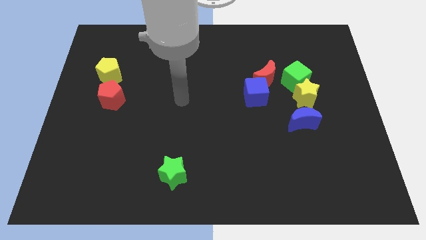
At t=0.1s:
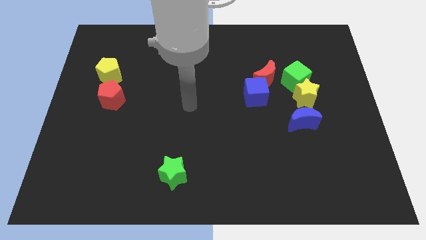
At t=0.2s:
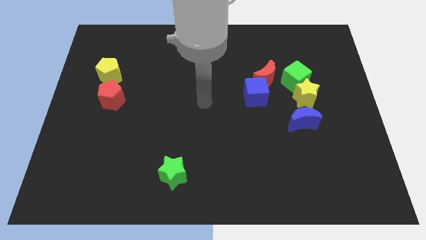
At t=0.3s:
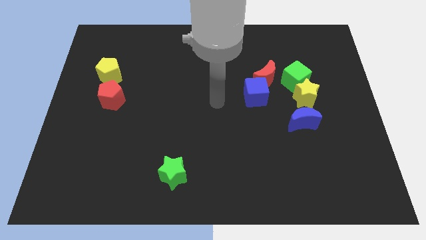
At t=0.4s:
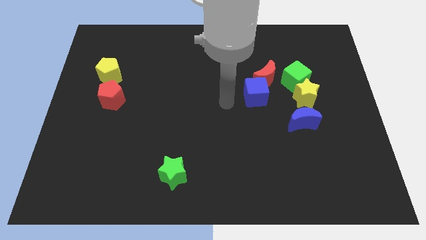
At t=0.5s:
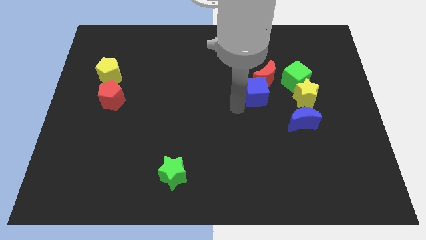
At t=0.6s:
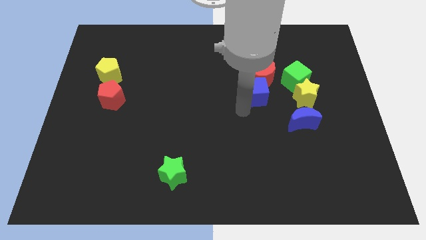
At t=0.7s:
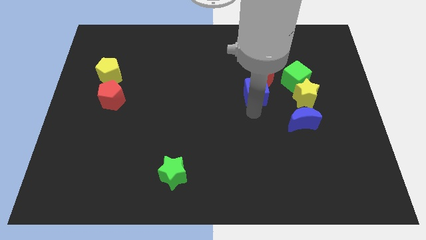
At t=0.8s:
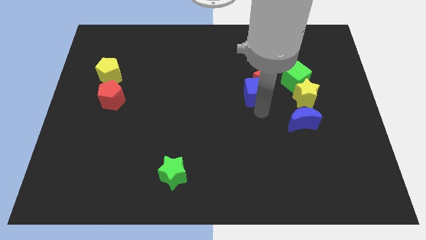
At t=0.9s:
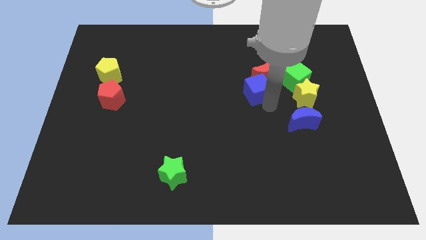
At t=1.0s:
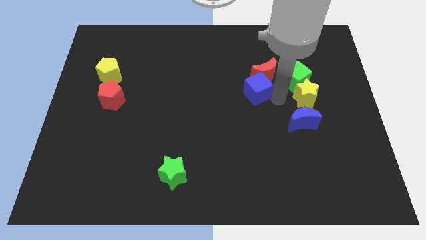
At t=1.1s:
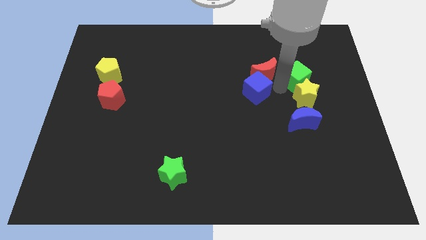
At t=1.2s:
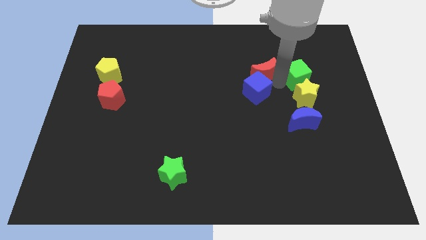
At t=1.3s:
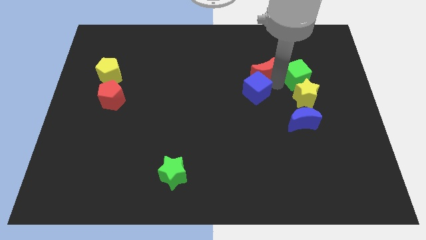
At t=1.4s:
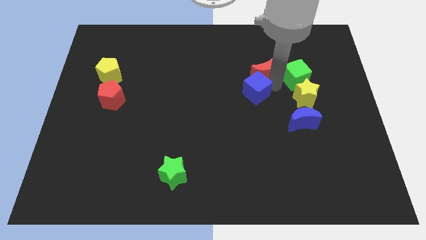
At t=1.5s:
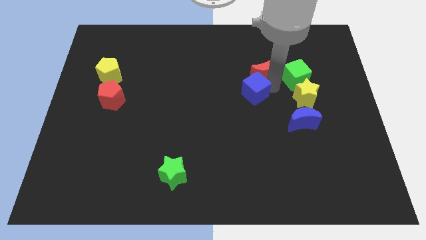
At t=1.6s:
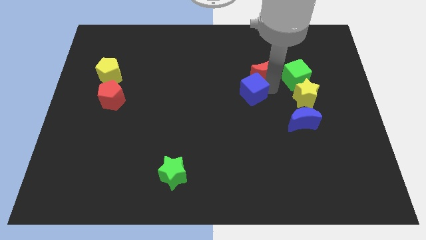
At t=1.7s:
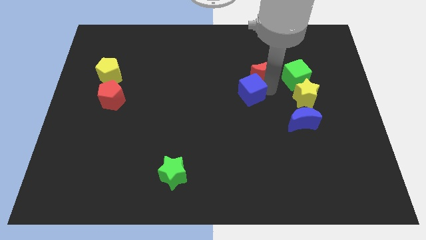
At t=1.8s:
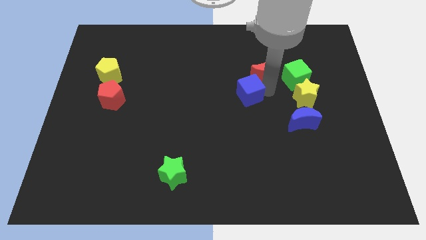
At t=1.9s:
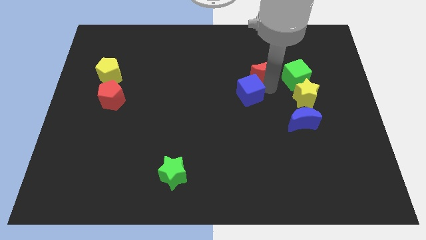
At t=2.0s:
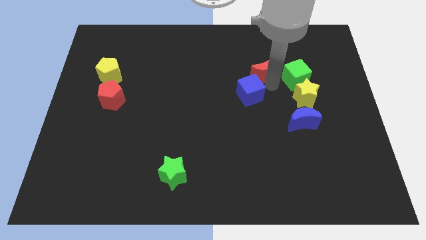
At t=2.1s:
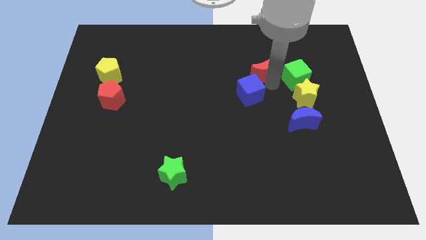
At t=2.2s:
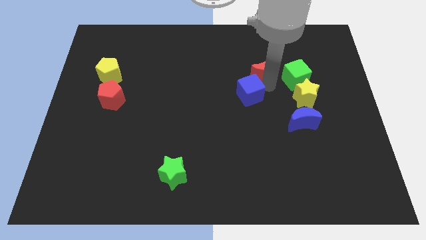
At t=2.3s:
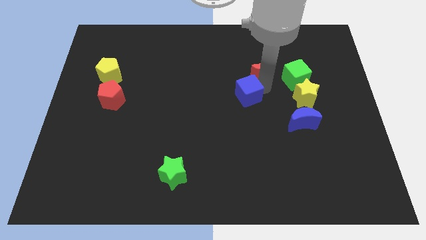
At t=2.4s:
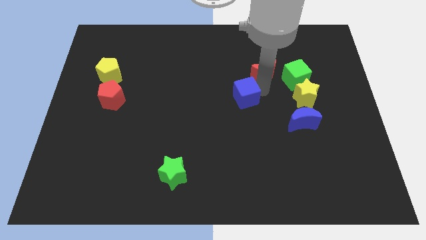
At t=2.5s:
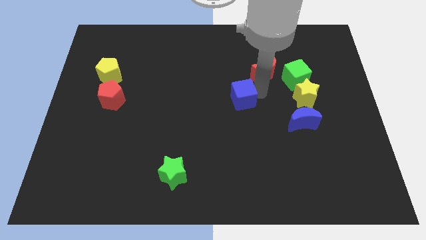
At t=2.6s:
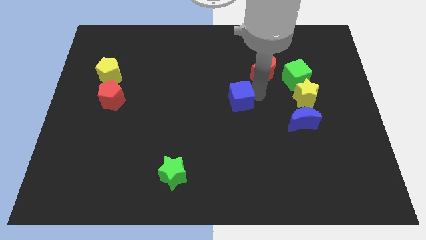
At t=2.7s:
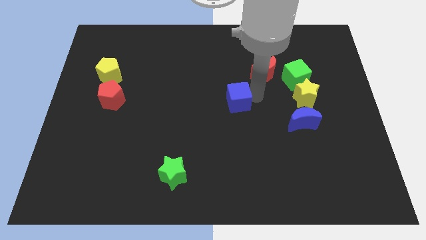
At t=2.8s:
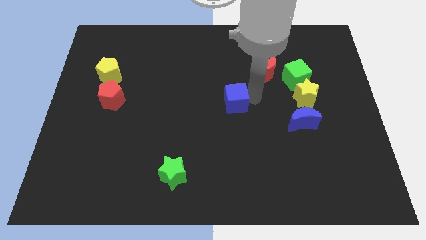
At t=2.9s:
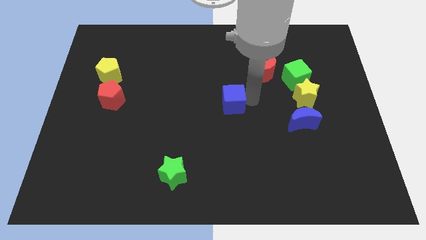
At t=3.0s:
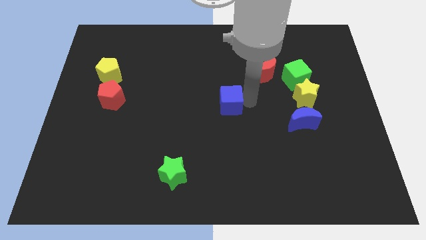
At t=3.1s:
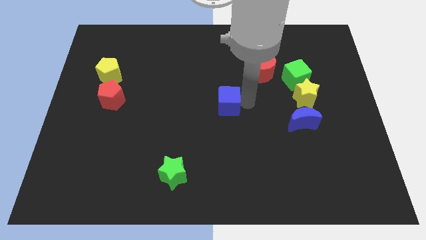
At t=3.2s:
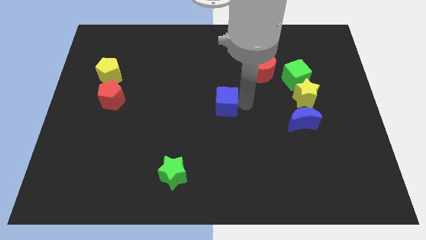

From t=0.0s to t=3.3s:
slide the blue cube a little bit left

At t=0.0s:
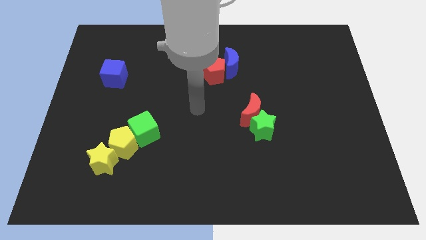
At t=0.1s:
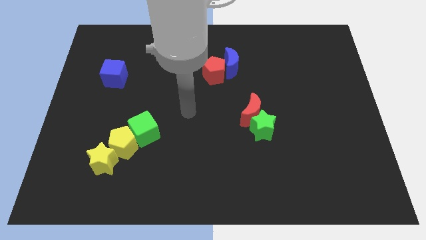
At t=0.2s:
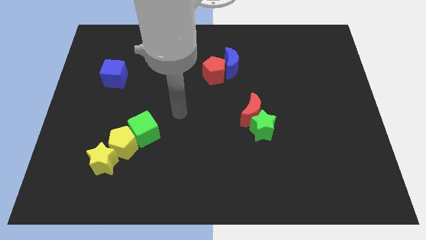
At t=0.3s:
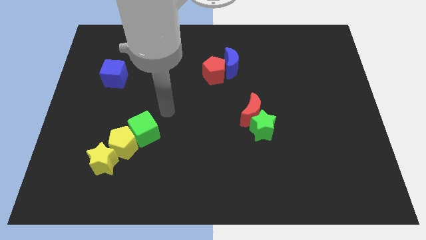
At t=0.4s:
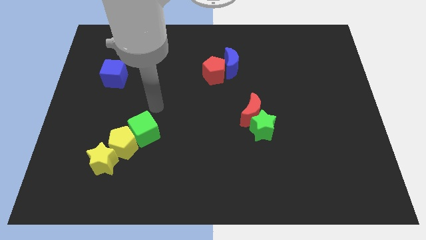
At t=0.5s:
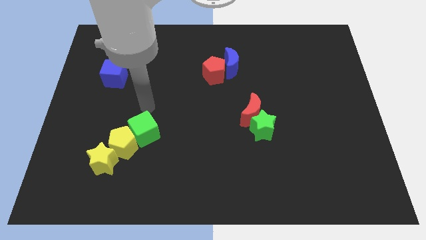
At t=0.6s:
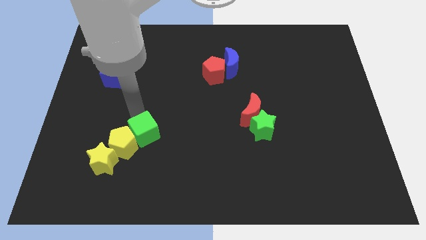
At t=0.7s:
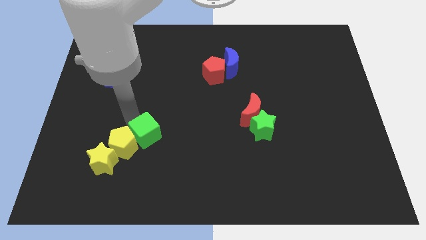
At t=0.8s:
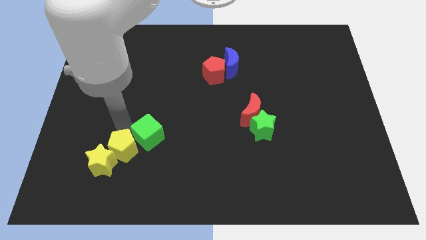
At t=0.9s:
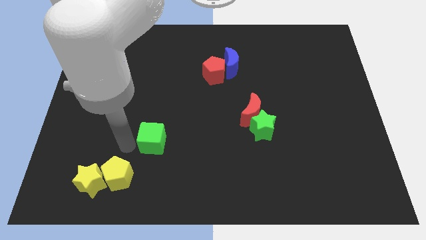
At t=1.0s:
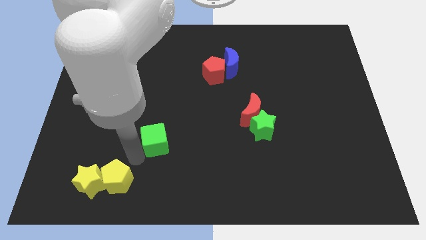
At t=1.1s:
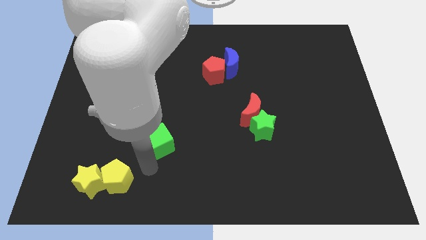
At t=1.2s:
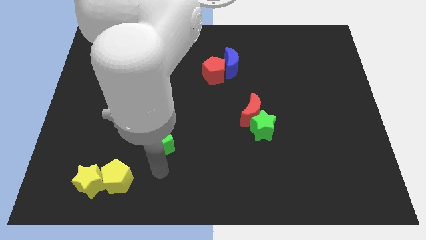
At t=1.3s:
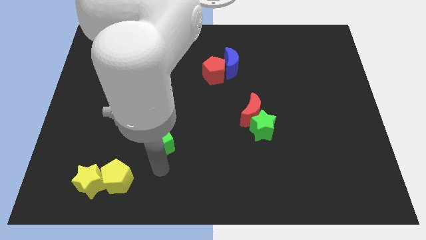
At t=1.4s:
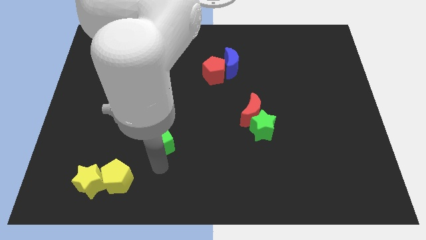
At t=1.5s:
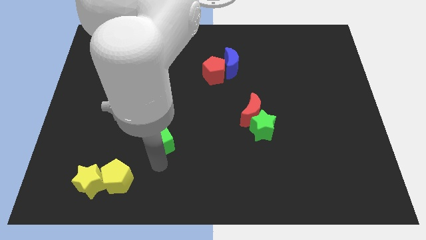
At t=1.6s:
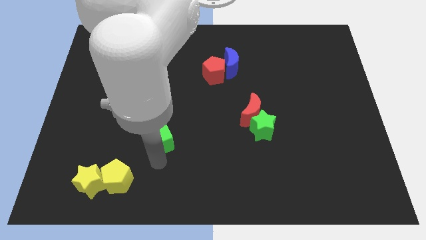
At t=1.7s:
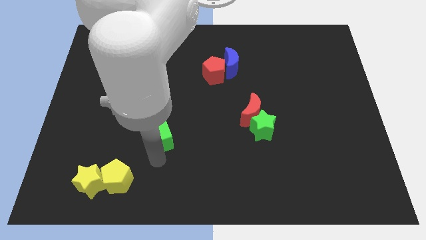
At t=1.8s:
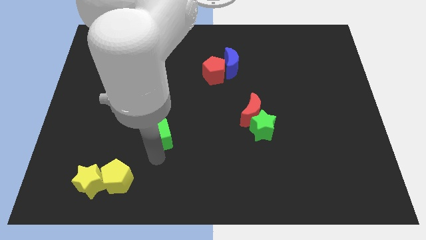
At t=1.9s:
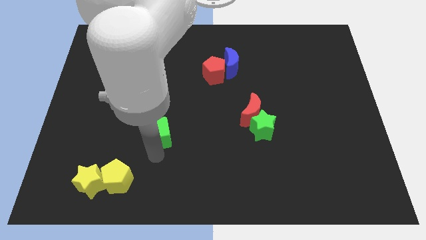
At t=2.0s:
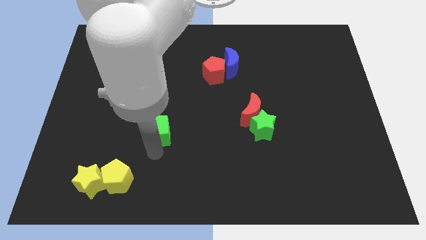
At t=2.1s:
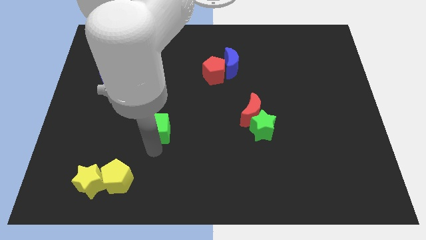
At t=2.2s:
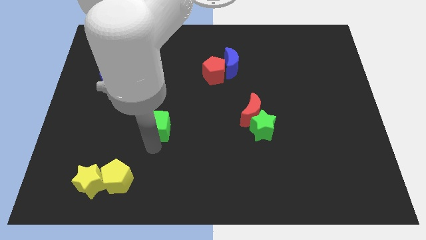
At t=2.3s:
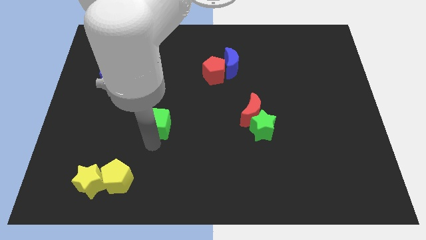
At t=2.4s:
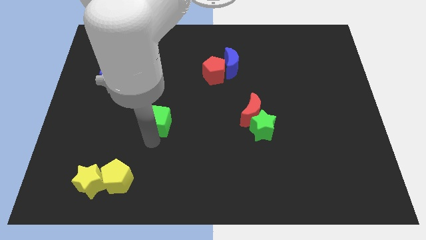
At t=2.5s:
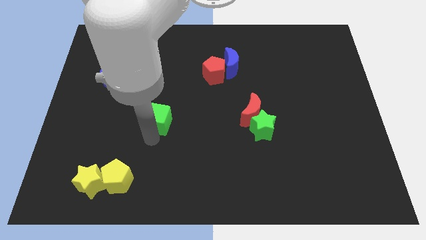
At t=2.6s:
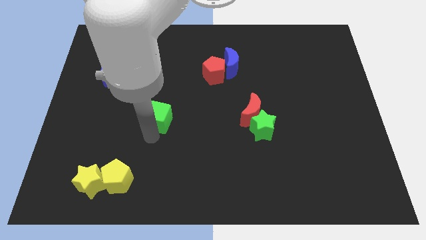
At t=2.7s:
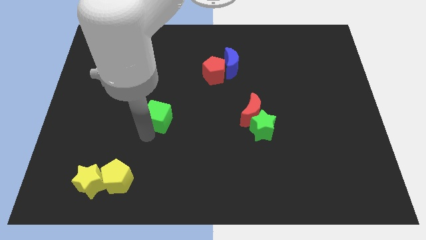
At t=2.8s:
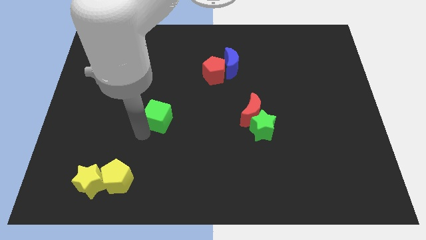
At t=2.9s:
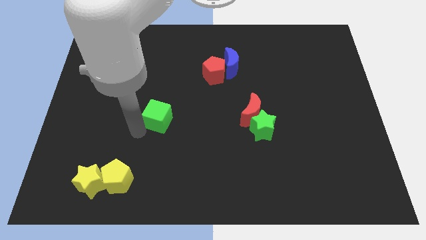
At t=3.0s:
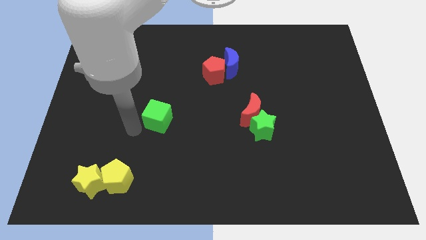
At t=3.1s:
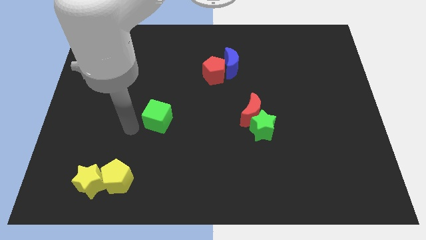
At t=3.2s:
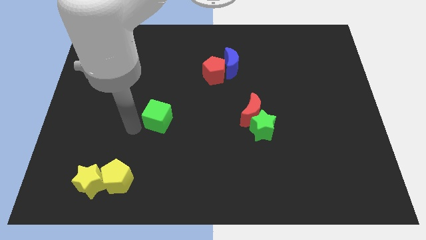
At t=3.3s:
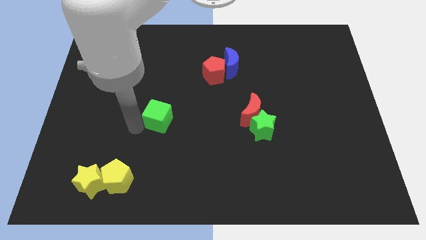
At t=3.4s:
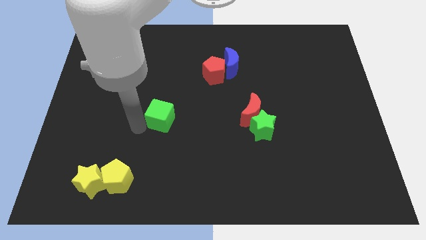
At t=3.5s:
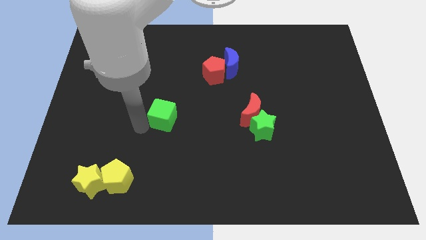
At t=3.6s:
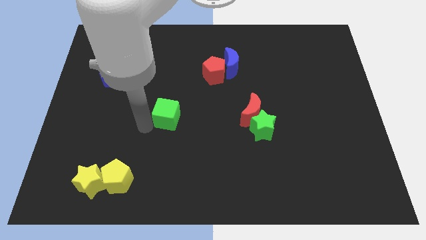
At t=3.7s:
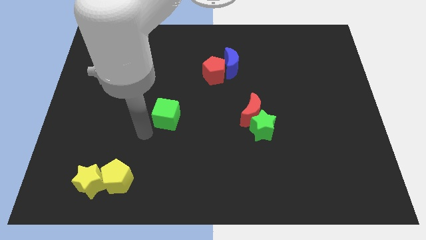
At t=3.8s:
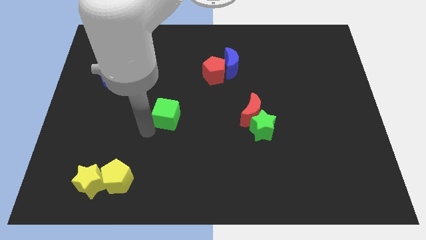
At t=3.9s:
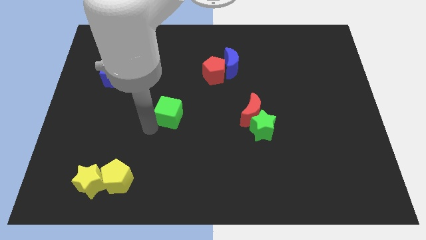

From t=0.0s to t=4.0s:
slide the green cube up and right diagonally a bit

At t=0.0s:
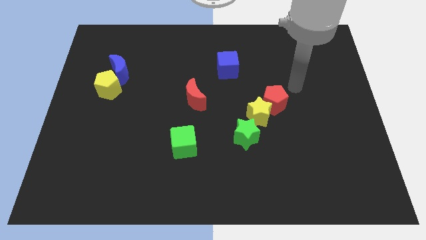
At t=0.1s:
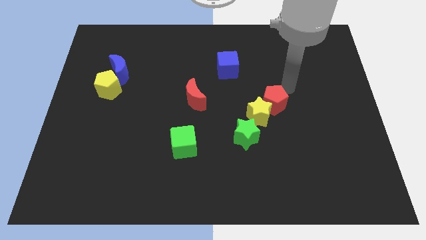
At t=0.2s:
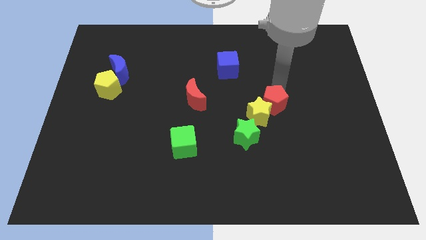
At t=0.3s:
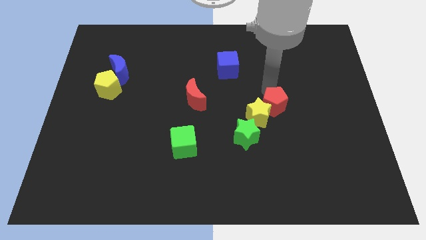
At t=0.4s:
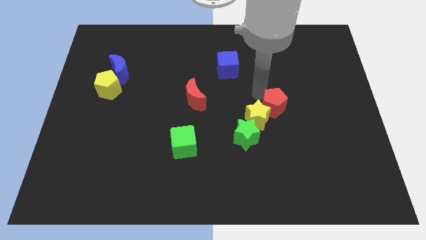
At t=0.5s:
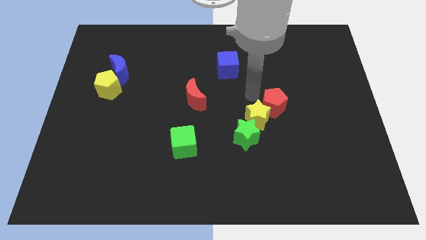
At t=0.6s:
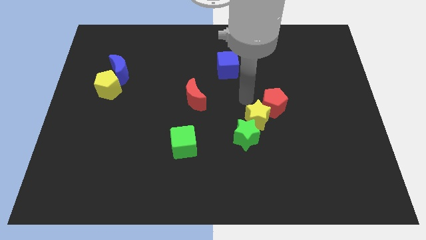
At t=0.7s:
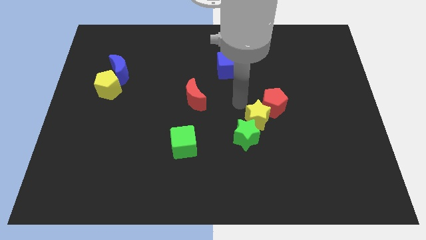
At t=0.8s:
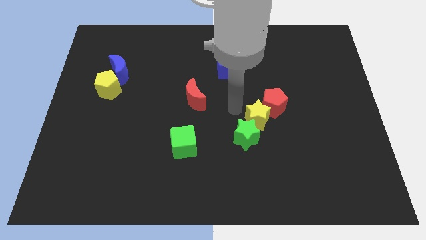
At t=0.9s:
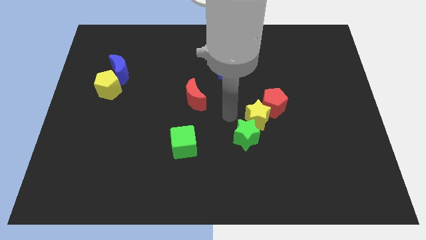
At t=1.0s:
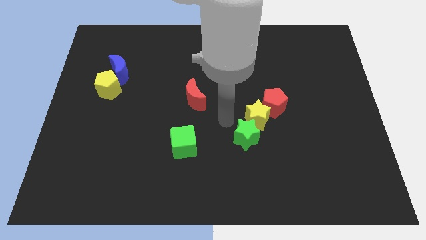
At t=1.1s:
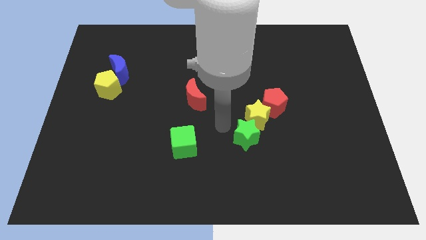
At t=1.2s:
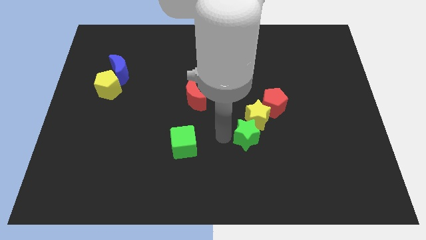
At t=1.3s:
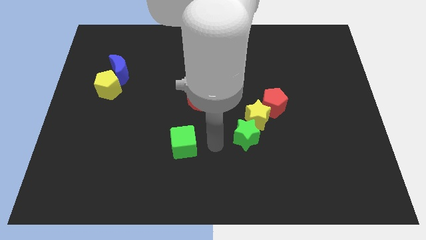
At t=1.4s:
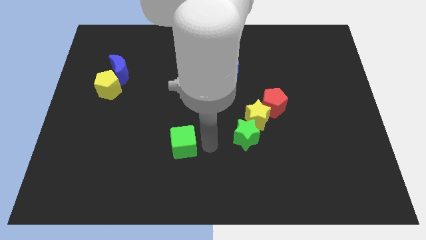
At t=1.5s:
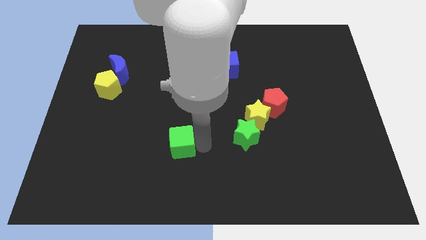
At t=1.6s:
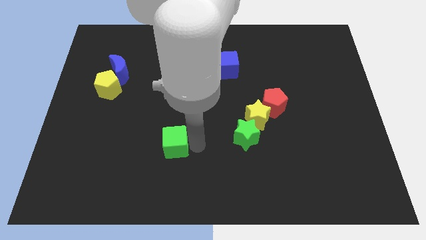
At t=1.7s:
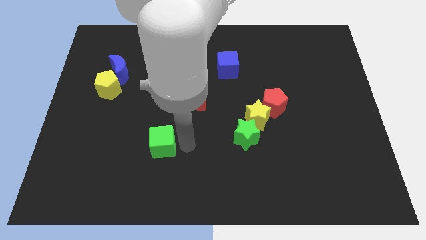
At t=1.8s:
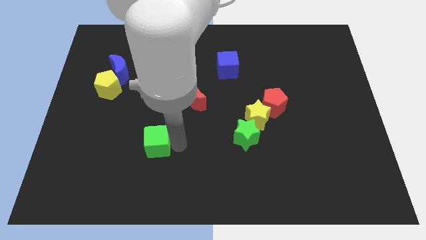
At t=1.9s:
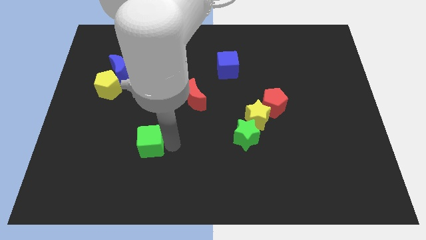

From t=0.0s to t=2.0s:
push the green cube to the left slightly
